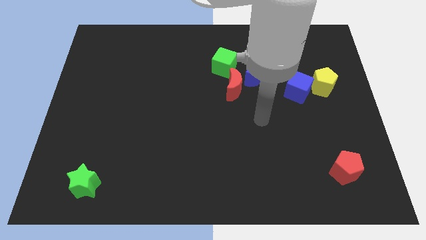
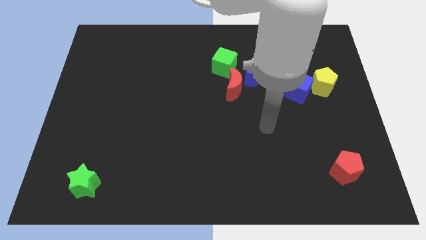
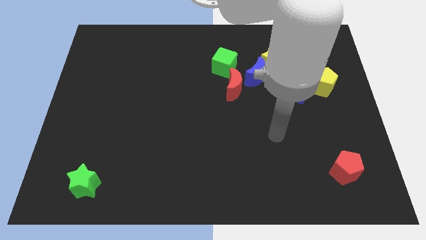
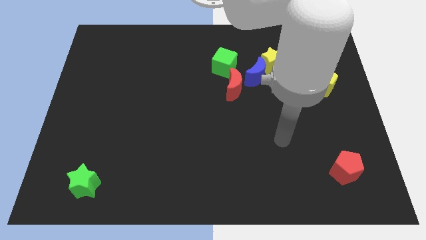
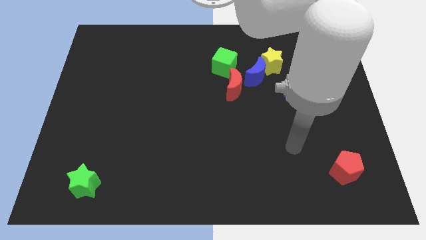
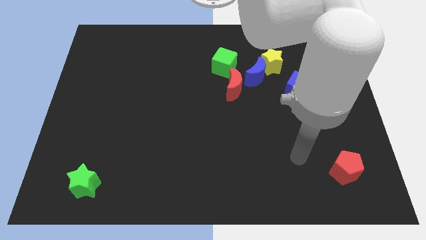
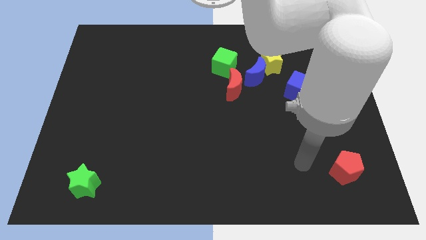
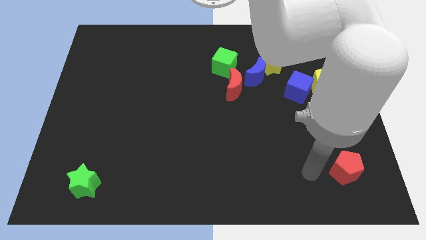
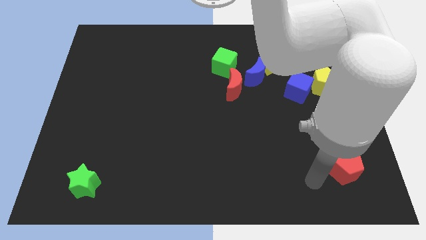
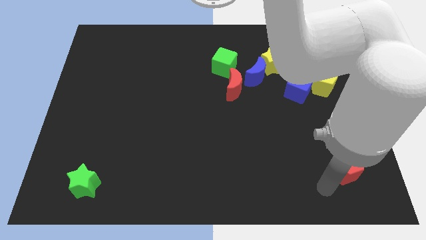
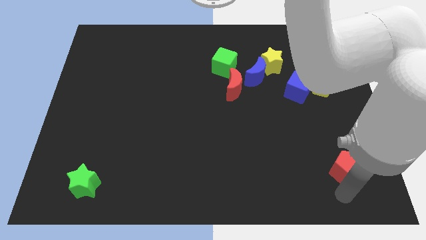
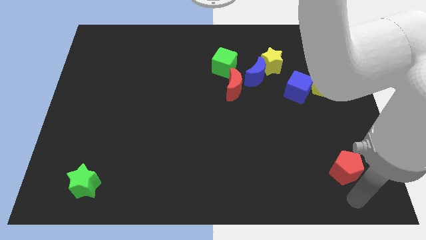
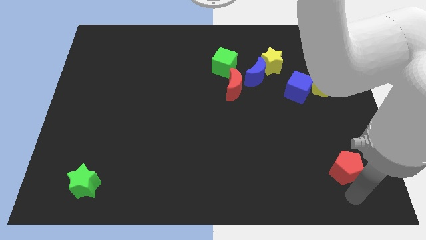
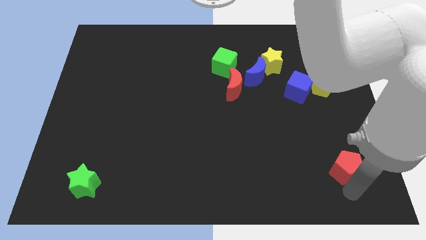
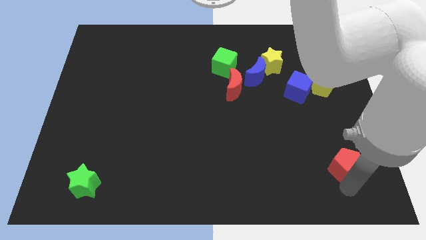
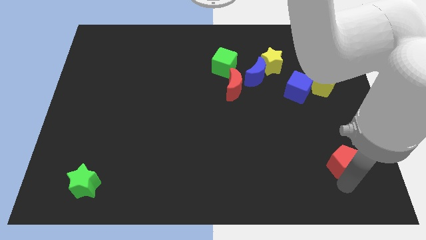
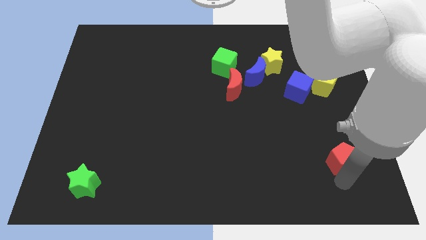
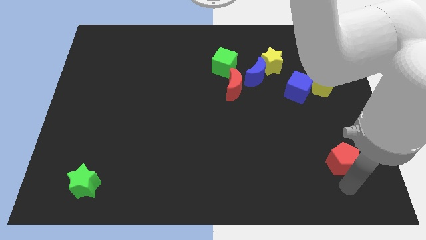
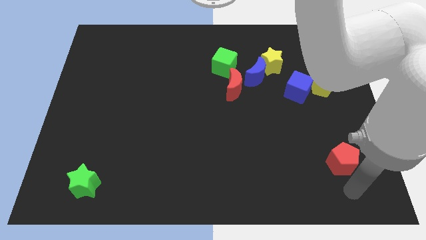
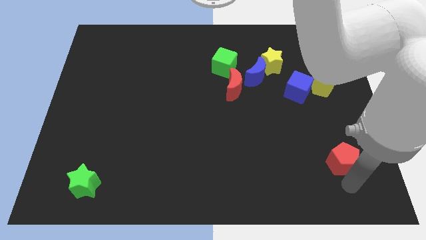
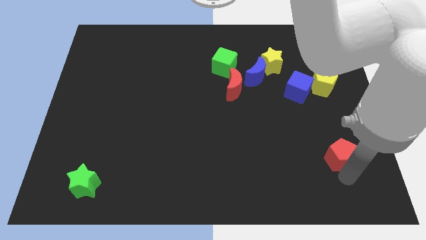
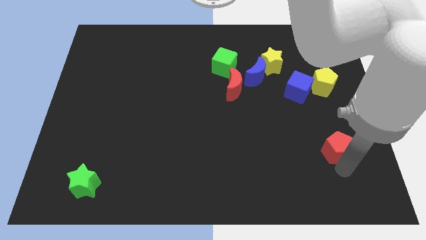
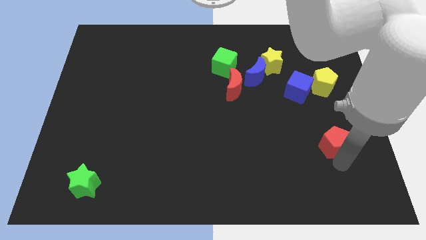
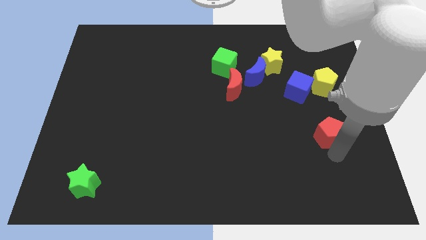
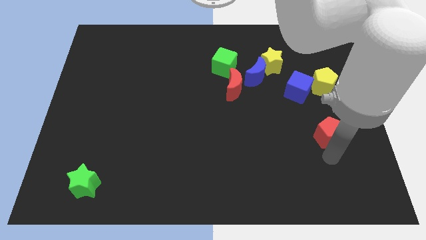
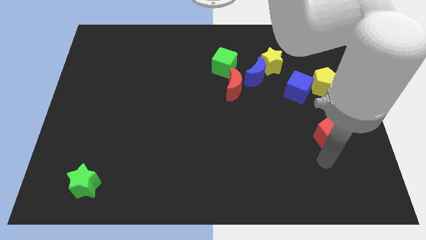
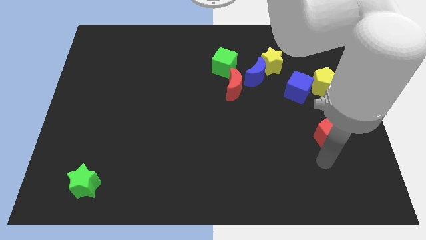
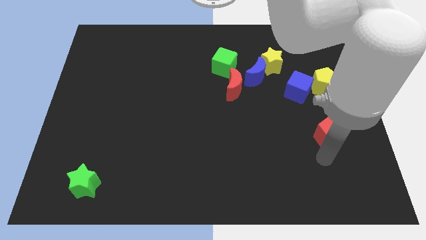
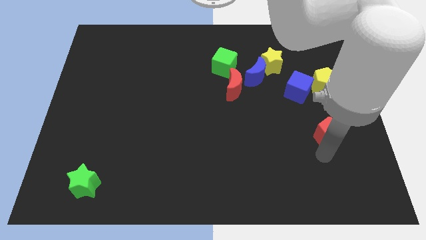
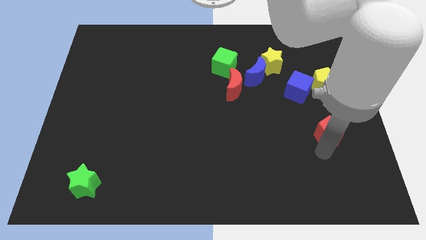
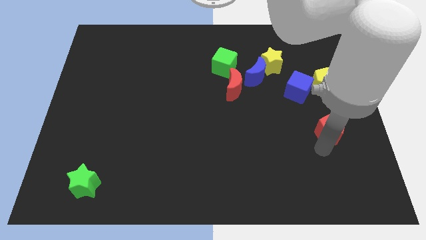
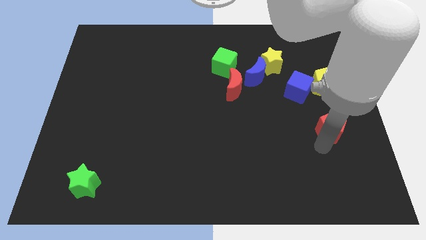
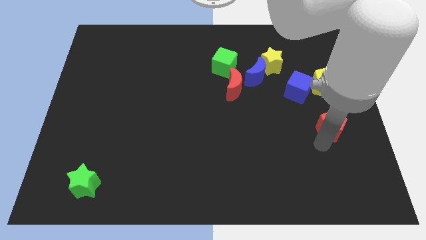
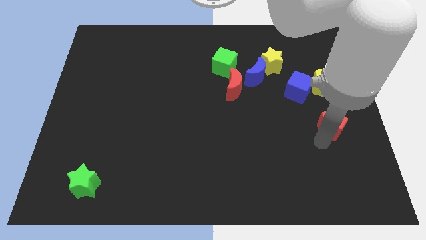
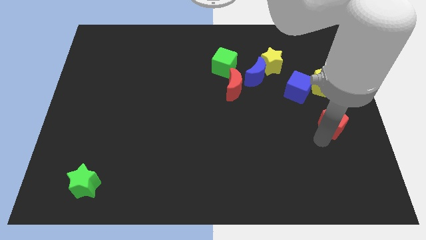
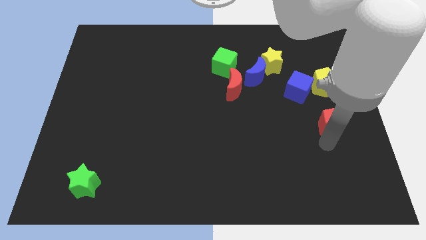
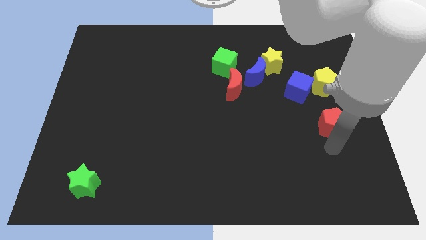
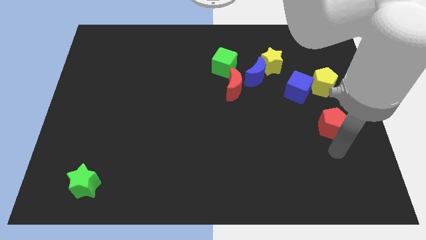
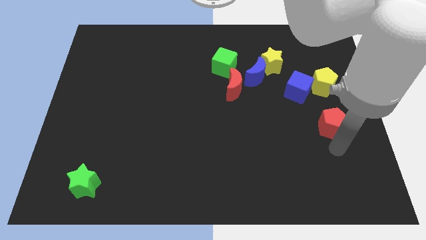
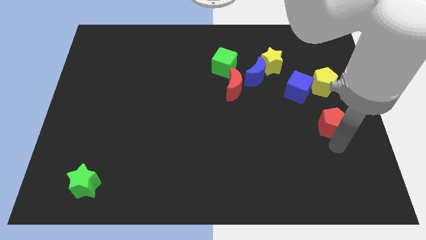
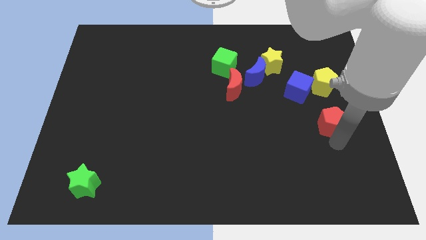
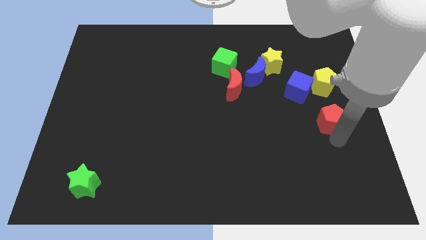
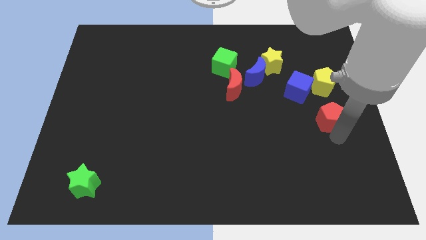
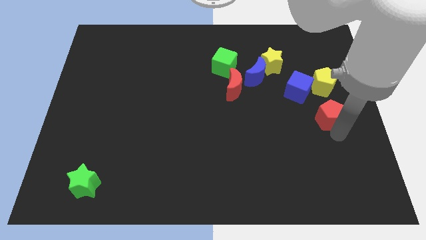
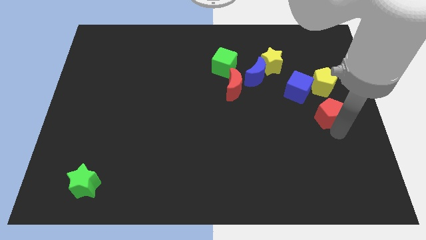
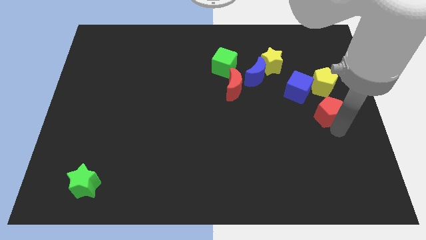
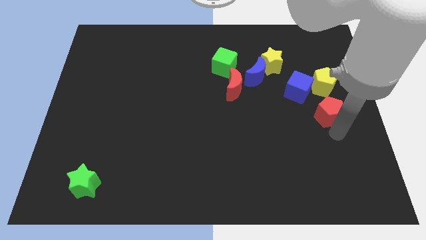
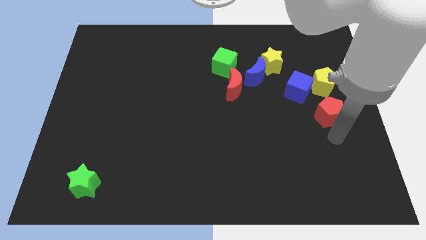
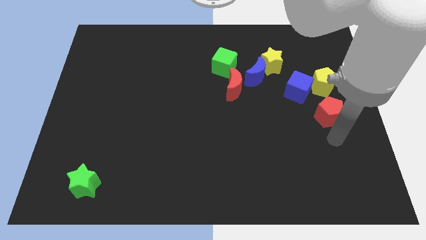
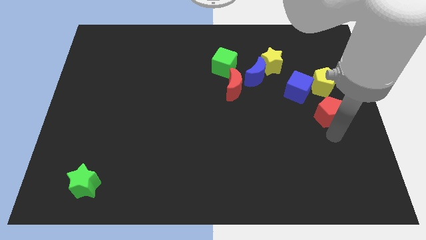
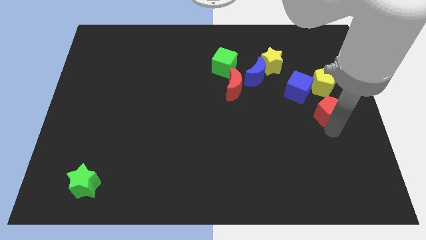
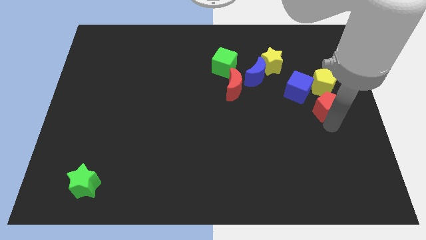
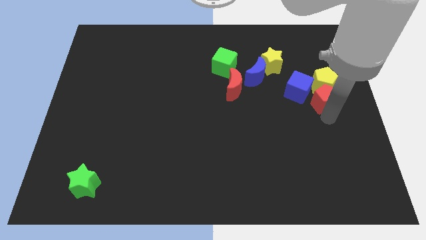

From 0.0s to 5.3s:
put the red pentagon to the yellow pentagon
